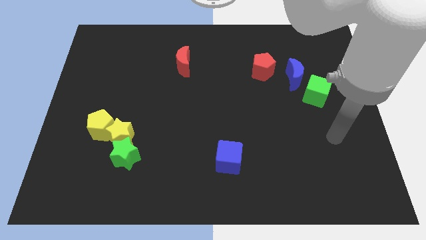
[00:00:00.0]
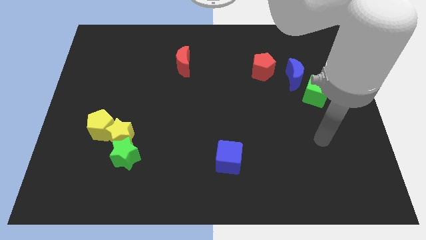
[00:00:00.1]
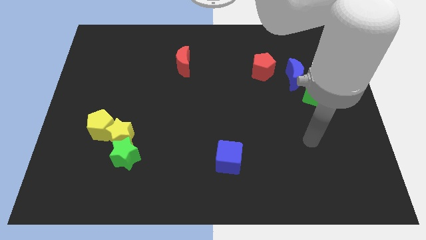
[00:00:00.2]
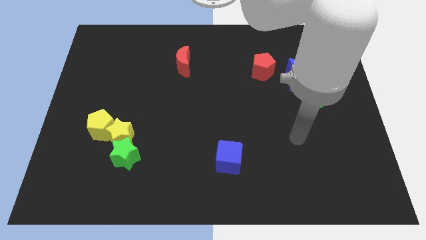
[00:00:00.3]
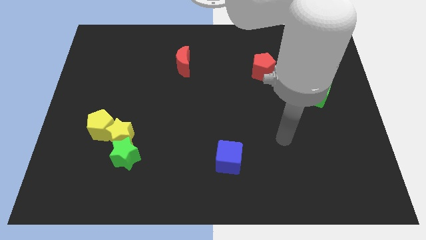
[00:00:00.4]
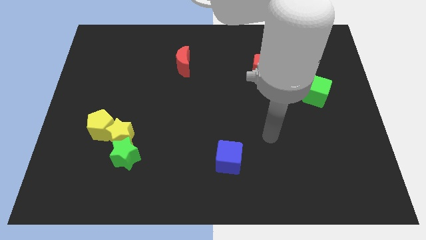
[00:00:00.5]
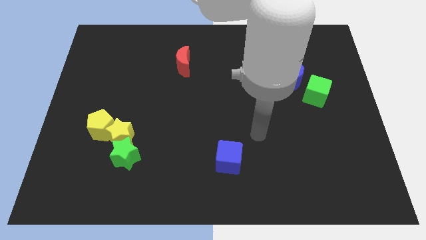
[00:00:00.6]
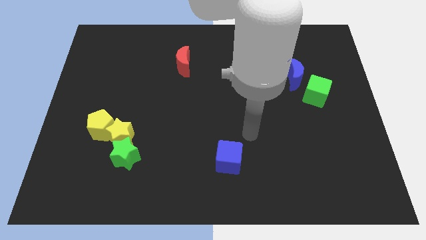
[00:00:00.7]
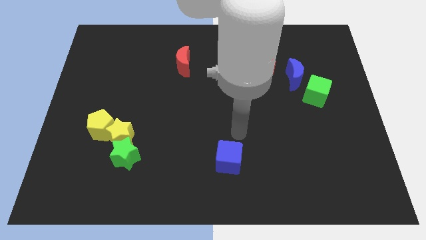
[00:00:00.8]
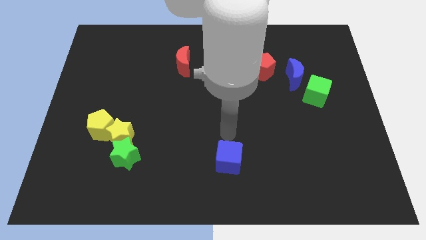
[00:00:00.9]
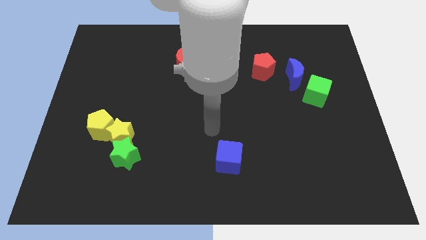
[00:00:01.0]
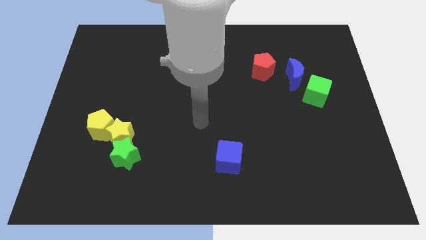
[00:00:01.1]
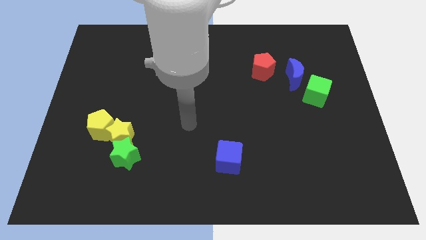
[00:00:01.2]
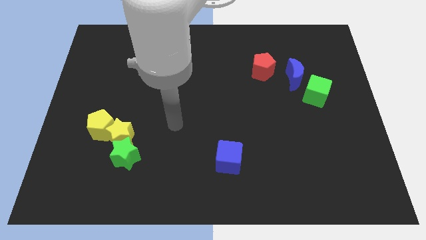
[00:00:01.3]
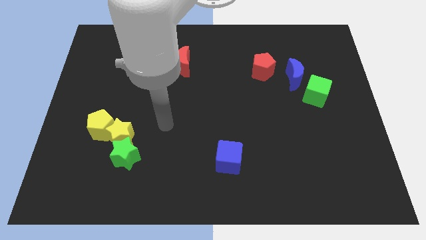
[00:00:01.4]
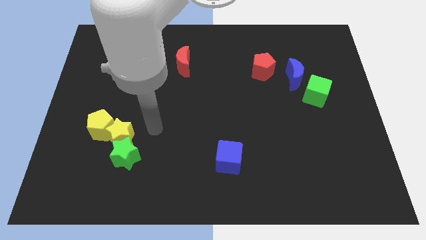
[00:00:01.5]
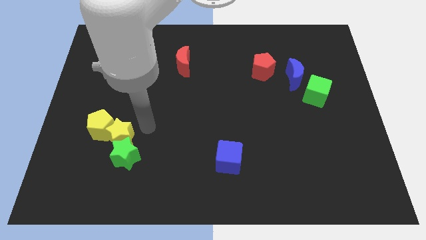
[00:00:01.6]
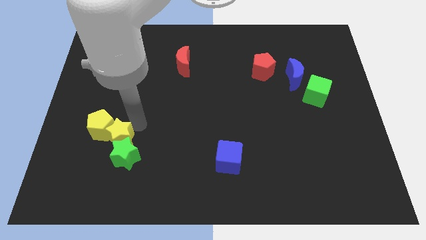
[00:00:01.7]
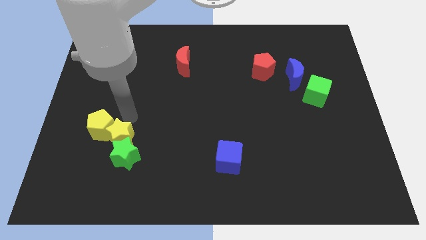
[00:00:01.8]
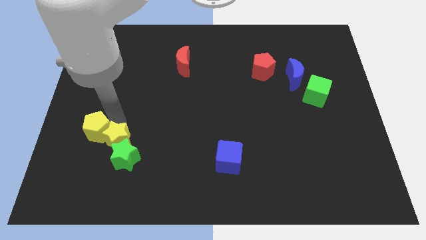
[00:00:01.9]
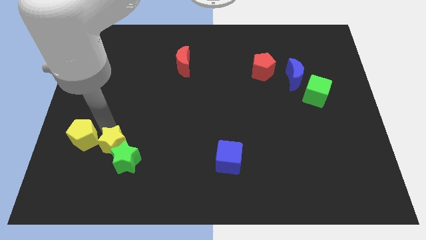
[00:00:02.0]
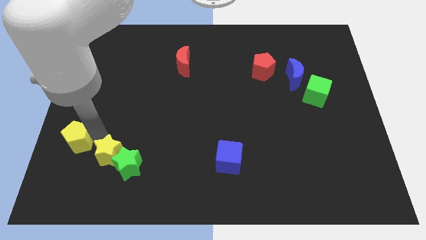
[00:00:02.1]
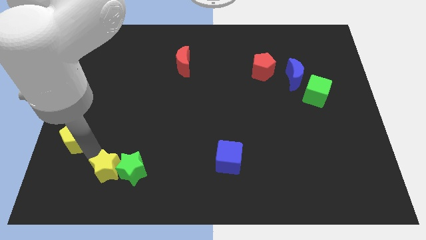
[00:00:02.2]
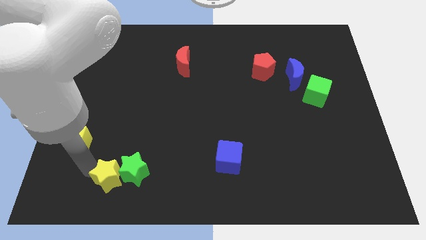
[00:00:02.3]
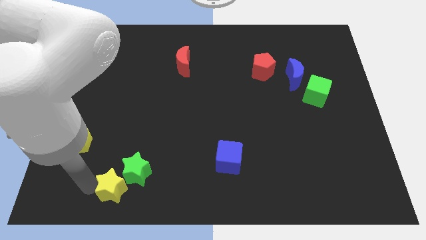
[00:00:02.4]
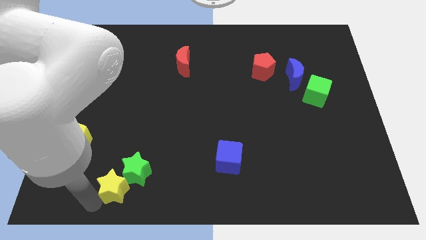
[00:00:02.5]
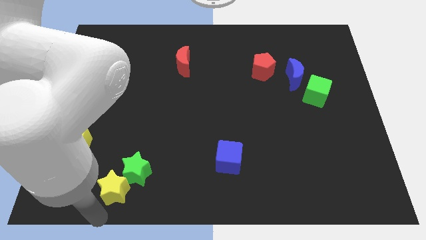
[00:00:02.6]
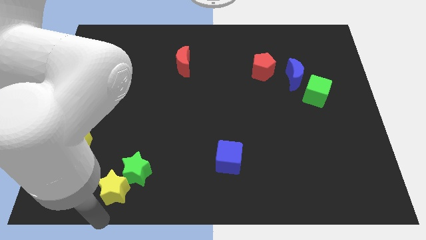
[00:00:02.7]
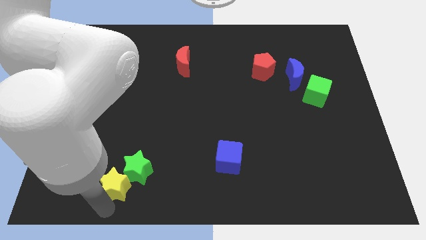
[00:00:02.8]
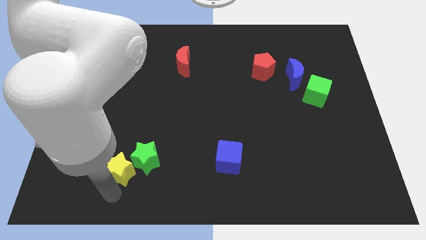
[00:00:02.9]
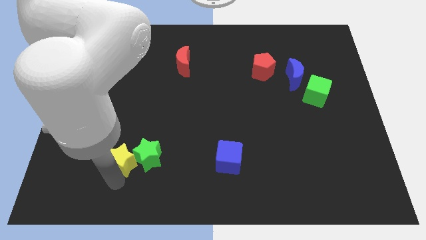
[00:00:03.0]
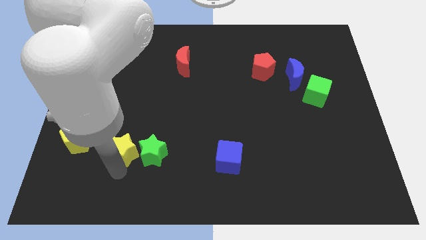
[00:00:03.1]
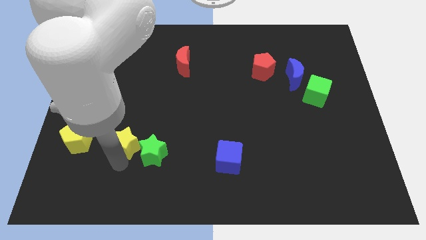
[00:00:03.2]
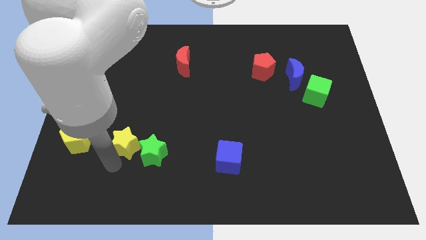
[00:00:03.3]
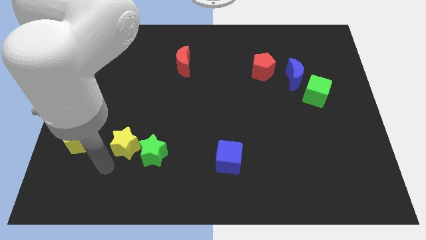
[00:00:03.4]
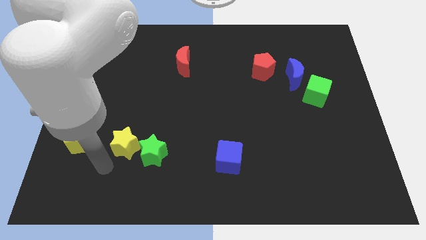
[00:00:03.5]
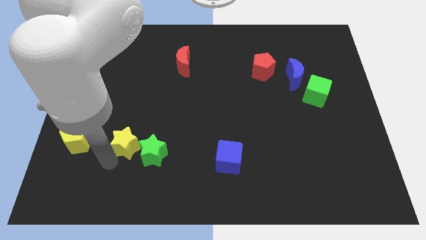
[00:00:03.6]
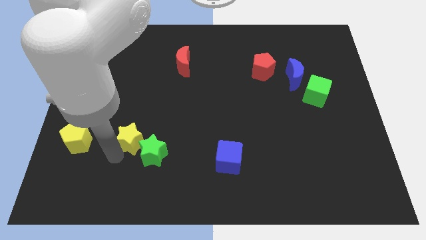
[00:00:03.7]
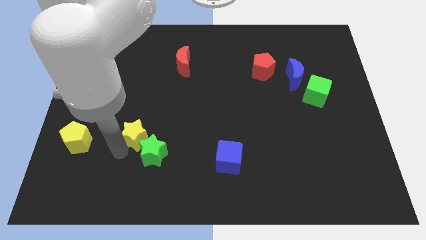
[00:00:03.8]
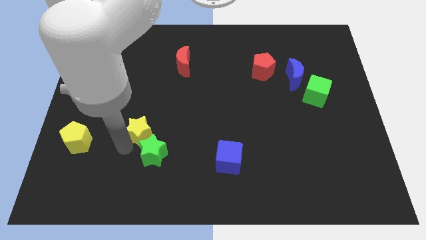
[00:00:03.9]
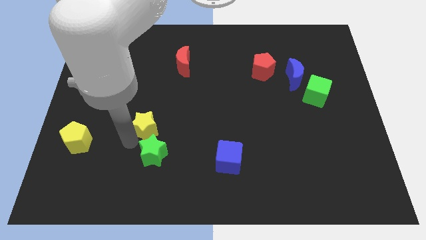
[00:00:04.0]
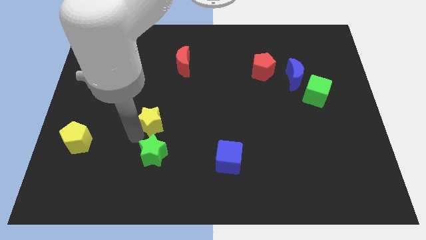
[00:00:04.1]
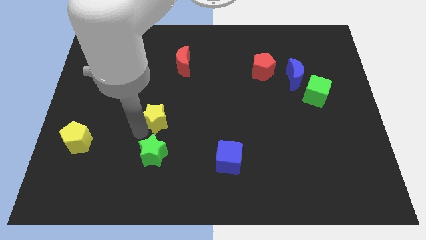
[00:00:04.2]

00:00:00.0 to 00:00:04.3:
pull the yellow star apart from the green star and yellow pentagon

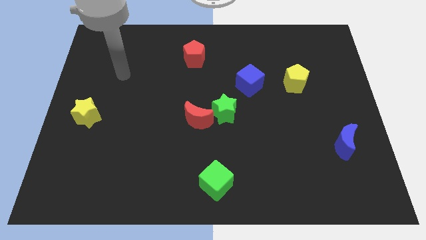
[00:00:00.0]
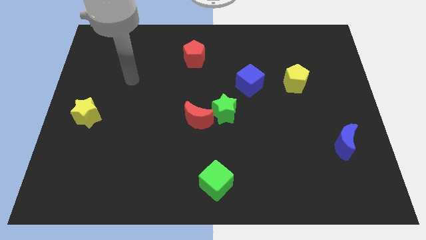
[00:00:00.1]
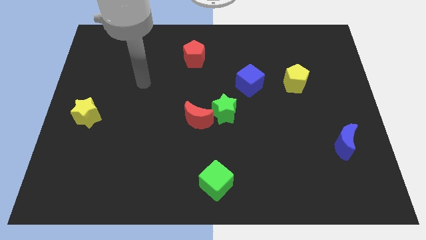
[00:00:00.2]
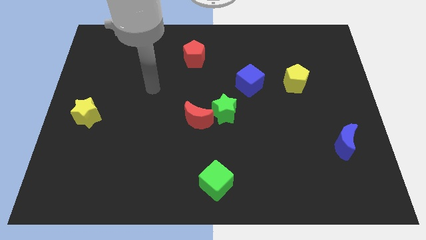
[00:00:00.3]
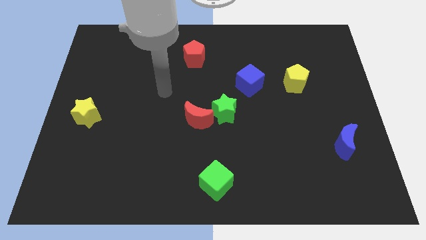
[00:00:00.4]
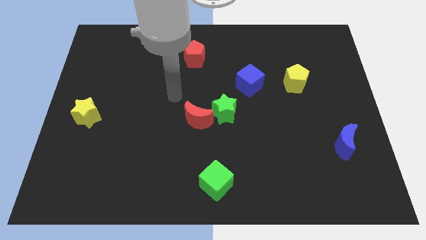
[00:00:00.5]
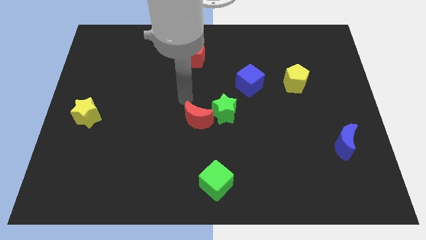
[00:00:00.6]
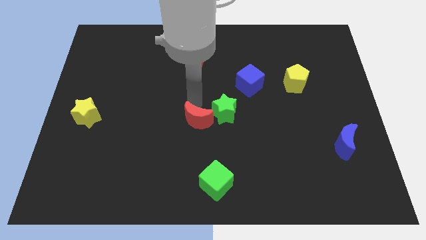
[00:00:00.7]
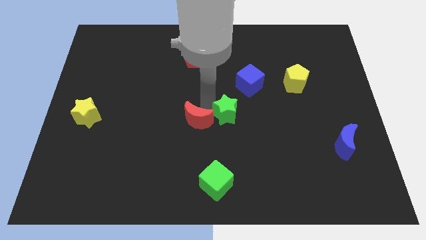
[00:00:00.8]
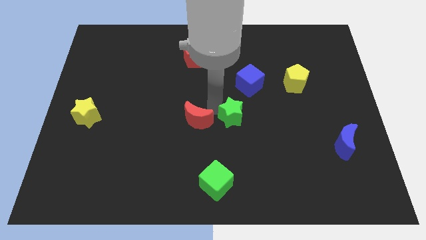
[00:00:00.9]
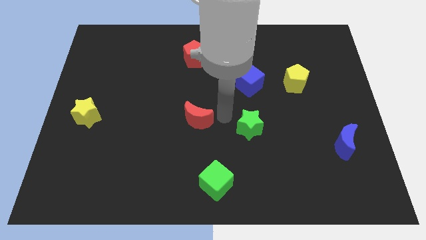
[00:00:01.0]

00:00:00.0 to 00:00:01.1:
pull the red moon apart from the green star

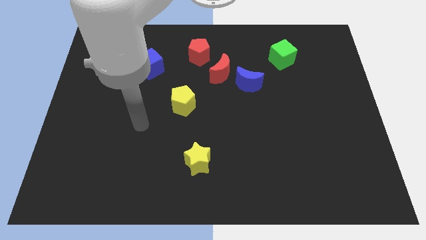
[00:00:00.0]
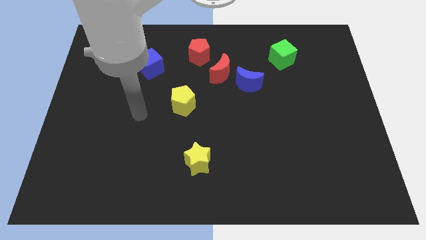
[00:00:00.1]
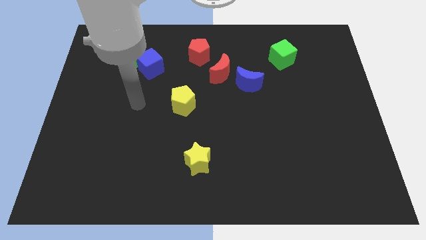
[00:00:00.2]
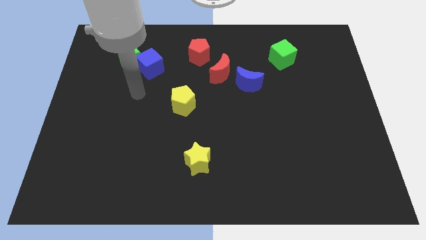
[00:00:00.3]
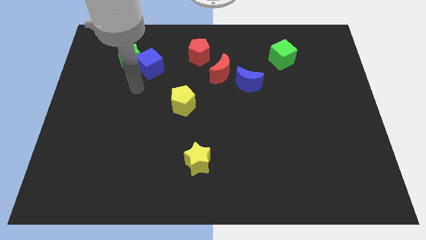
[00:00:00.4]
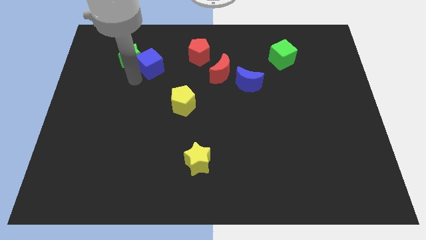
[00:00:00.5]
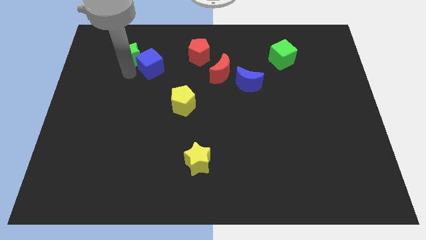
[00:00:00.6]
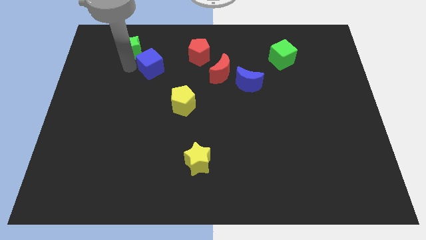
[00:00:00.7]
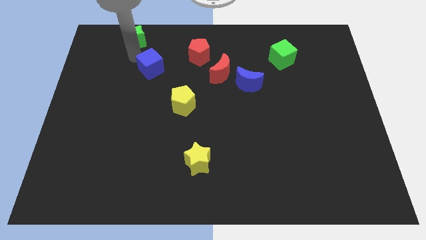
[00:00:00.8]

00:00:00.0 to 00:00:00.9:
separate the blue cube from the green star

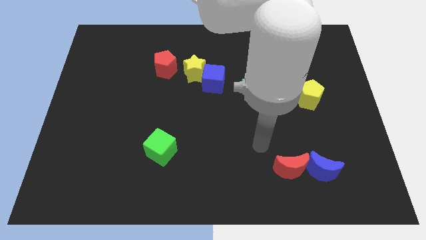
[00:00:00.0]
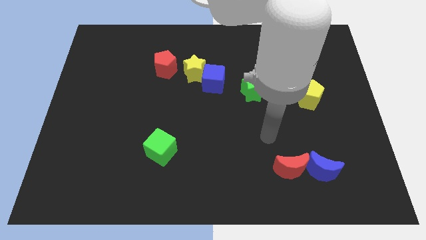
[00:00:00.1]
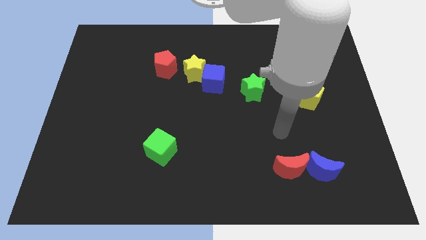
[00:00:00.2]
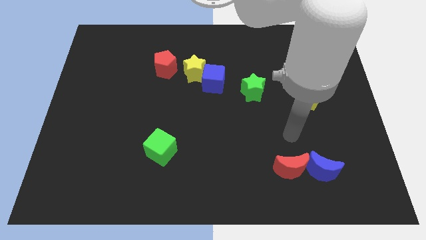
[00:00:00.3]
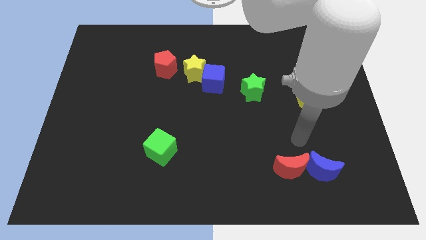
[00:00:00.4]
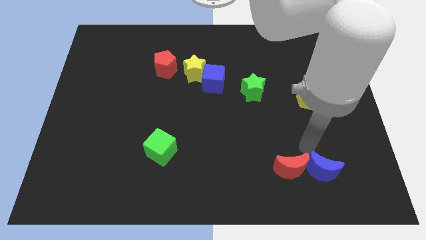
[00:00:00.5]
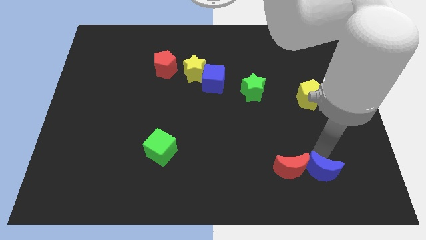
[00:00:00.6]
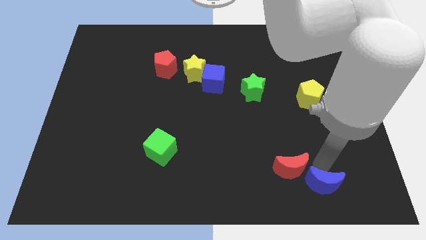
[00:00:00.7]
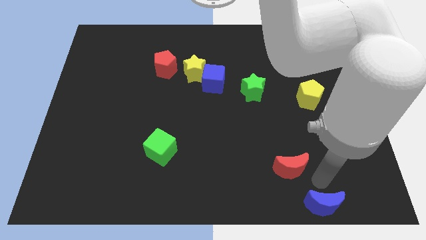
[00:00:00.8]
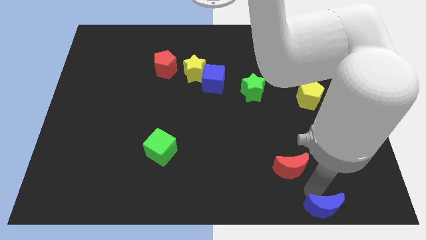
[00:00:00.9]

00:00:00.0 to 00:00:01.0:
move the red moon away from the blue moon

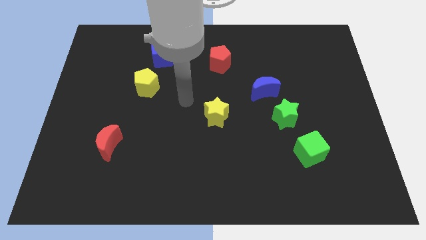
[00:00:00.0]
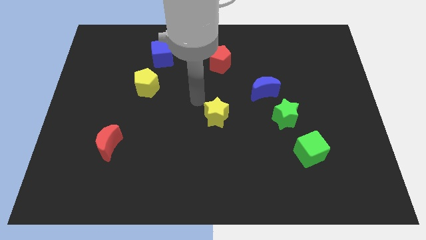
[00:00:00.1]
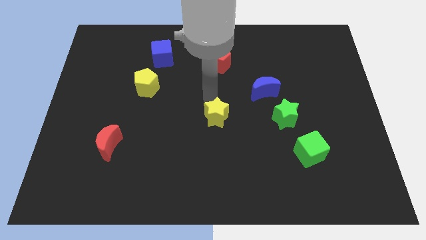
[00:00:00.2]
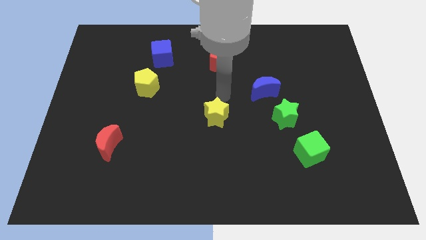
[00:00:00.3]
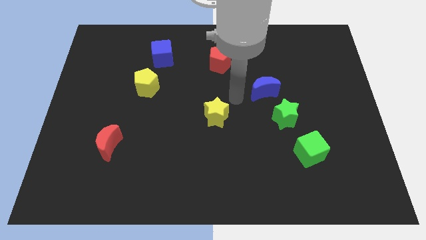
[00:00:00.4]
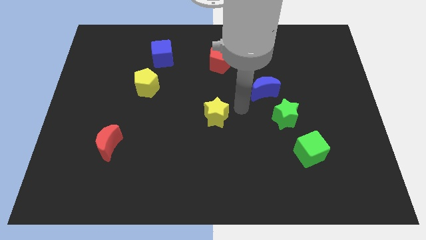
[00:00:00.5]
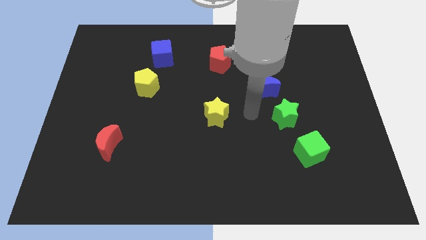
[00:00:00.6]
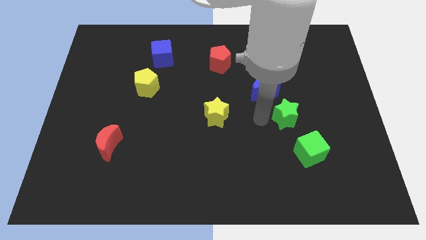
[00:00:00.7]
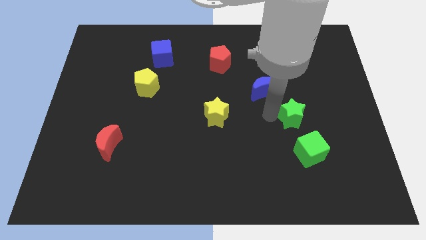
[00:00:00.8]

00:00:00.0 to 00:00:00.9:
pull the blue moon apart from the green star

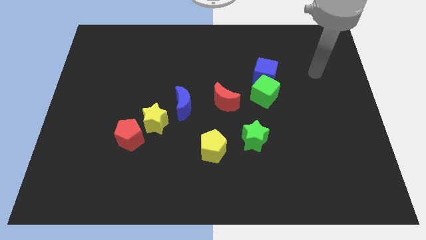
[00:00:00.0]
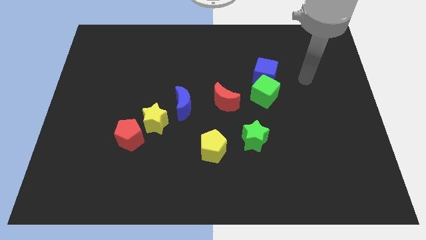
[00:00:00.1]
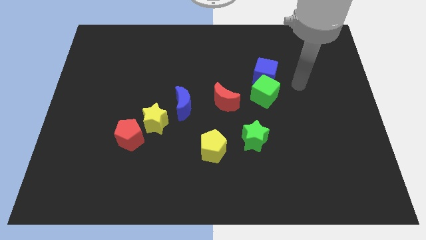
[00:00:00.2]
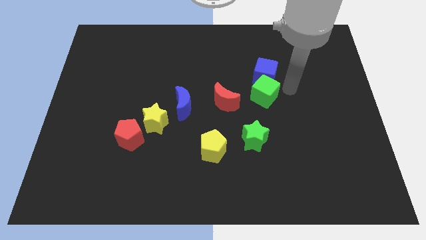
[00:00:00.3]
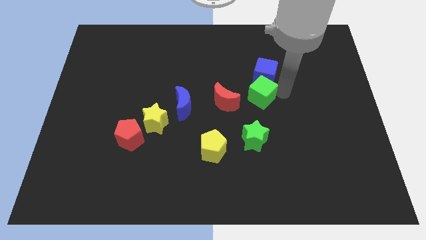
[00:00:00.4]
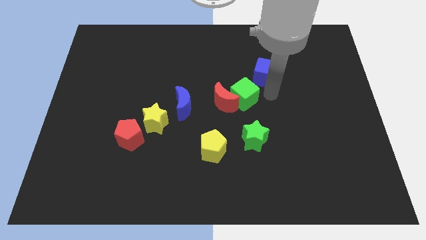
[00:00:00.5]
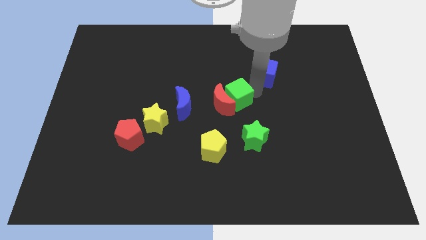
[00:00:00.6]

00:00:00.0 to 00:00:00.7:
move the blue cube away from the green cube

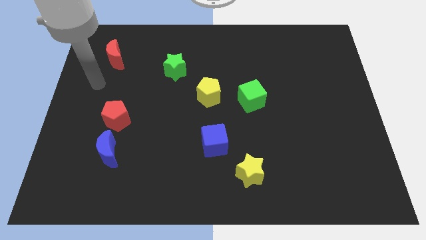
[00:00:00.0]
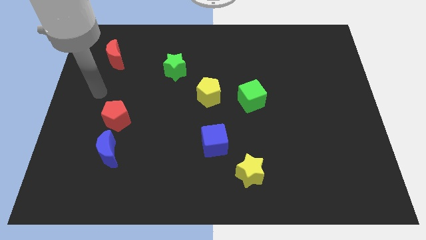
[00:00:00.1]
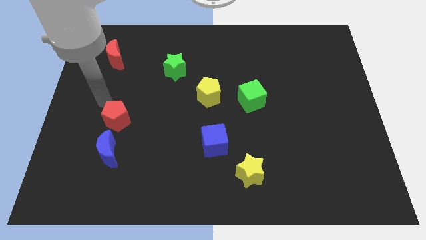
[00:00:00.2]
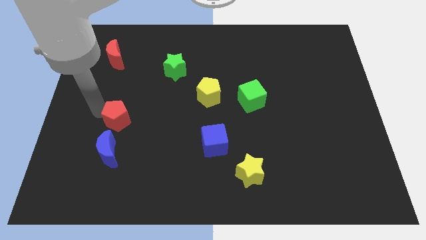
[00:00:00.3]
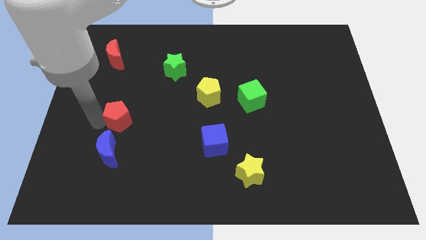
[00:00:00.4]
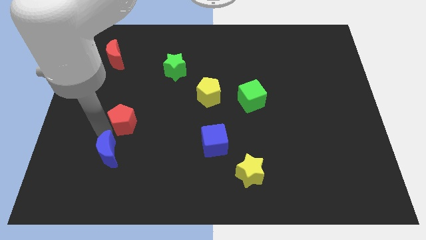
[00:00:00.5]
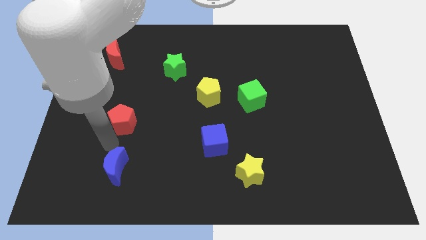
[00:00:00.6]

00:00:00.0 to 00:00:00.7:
separate the red pentagon from the blue moon
